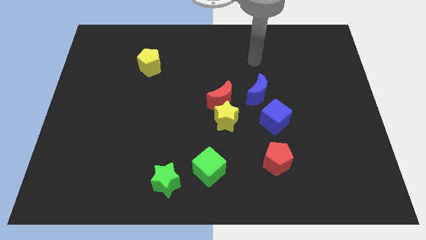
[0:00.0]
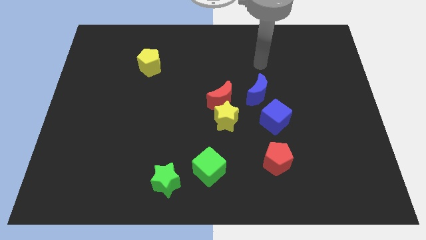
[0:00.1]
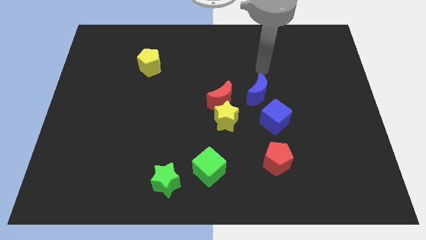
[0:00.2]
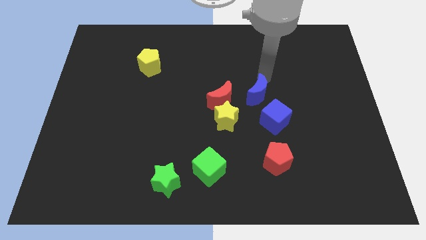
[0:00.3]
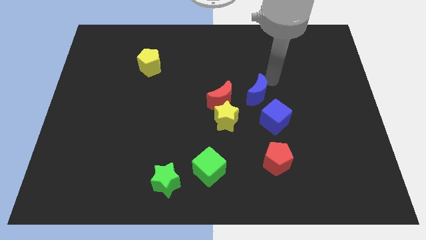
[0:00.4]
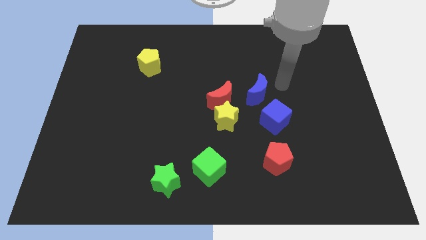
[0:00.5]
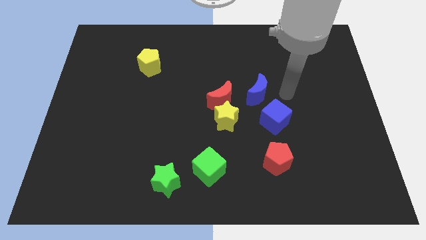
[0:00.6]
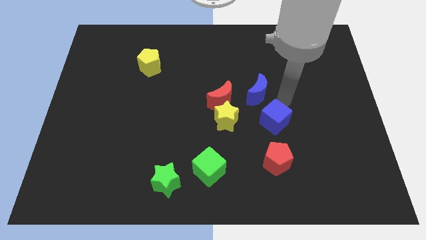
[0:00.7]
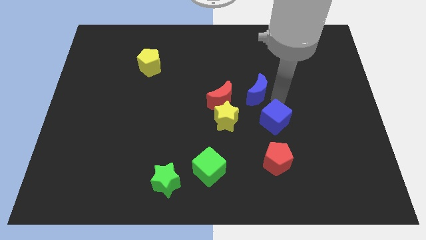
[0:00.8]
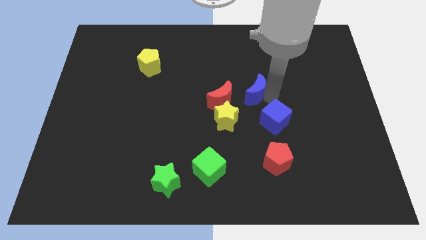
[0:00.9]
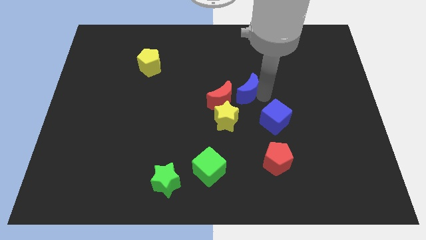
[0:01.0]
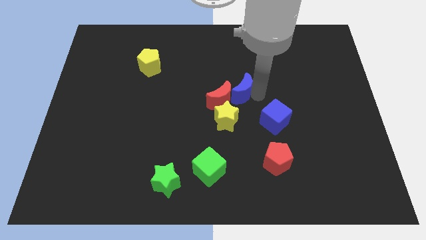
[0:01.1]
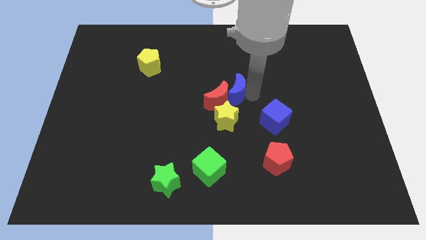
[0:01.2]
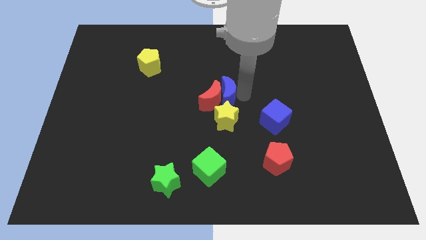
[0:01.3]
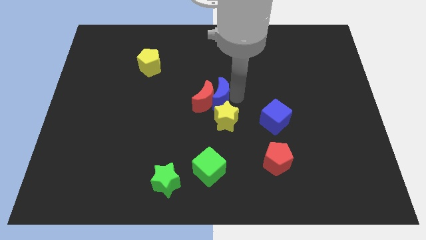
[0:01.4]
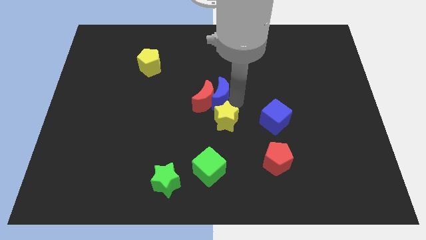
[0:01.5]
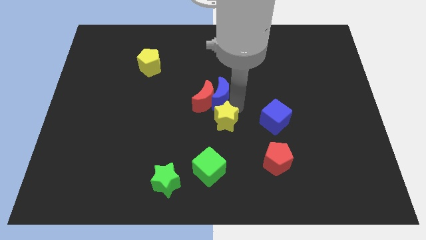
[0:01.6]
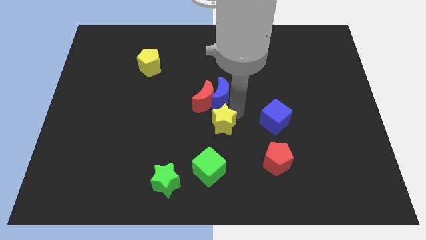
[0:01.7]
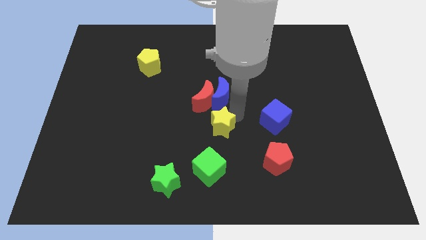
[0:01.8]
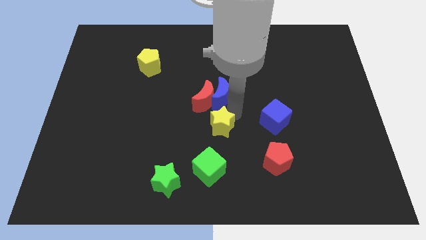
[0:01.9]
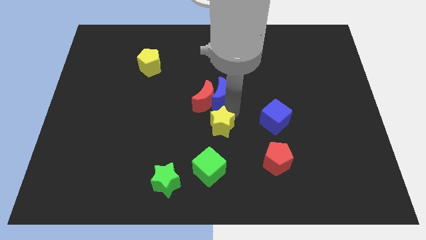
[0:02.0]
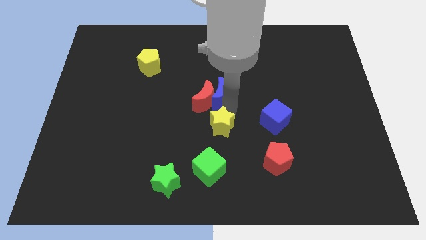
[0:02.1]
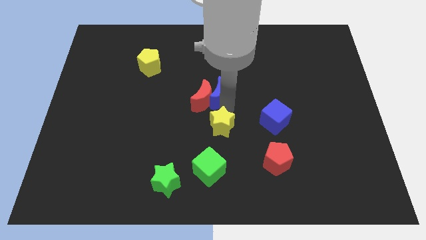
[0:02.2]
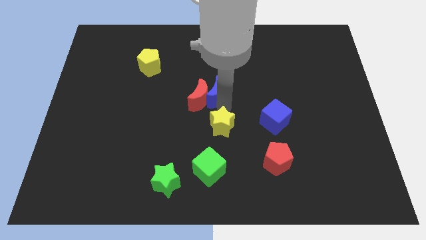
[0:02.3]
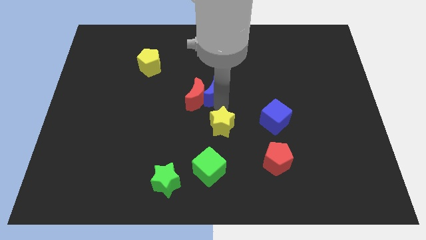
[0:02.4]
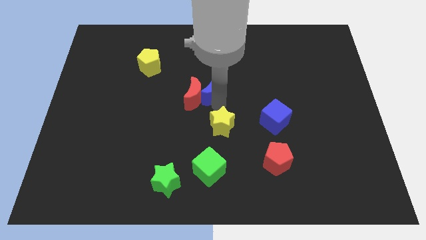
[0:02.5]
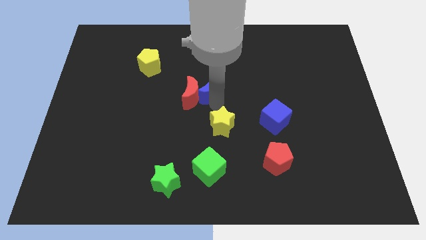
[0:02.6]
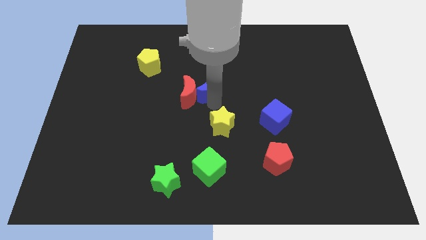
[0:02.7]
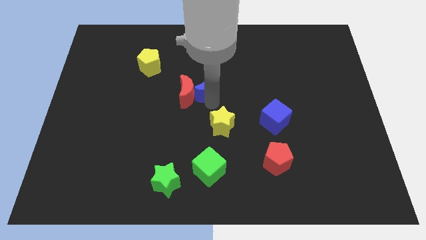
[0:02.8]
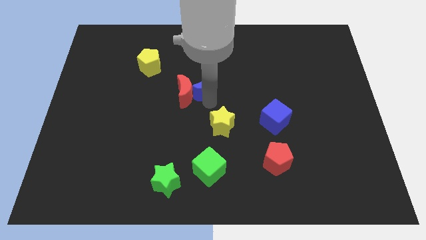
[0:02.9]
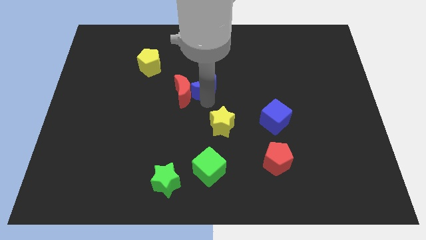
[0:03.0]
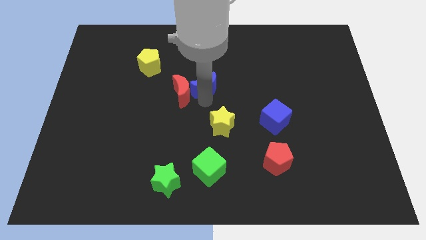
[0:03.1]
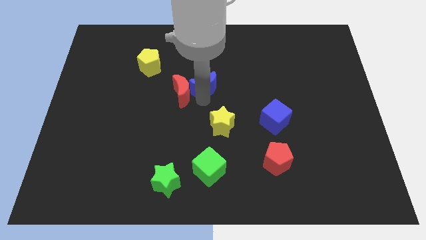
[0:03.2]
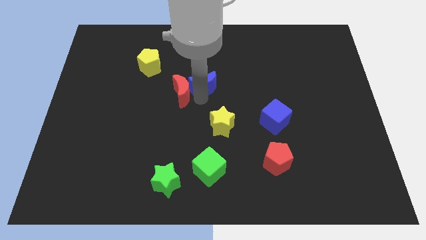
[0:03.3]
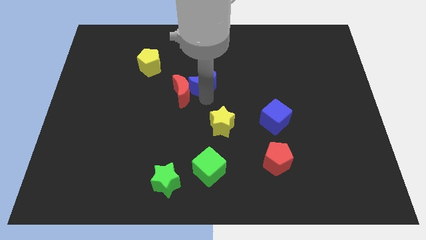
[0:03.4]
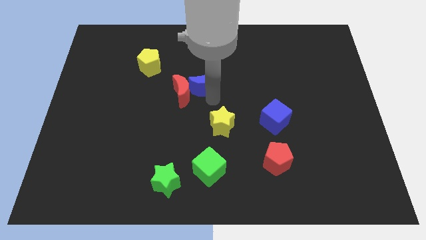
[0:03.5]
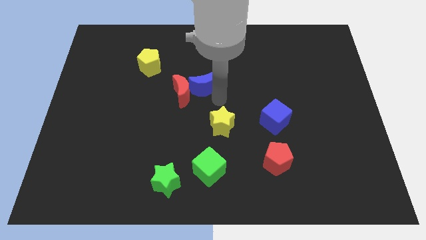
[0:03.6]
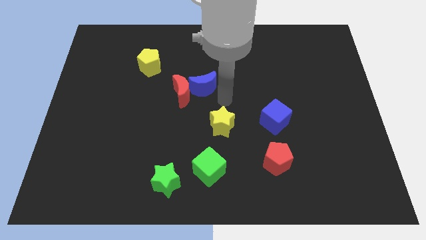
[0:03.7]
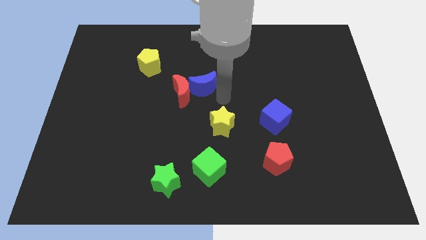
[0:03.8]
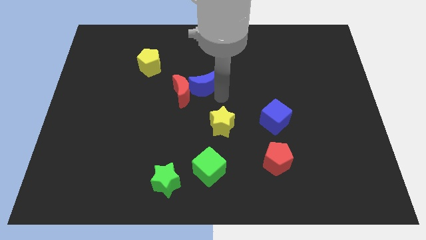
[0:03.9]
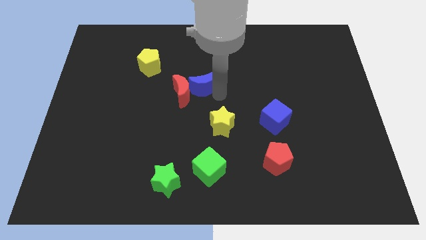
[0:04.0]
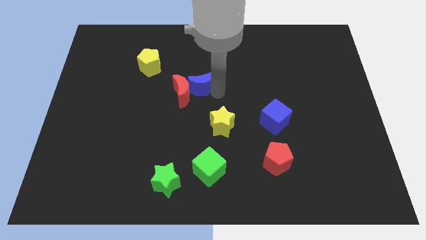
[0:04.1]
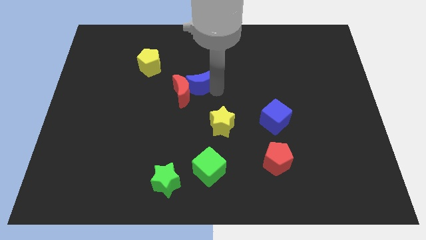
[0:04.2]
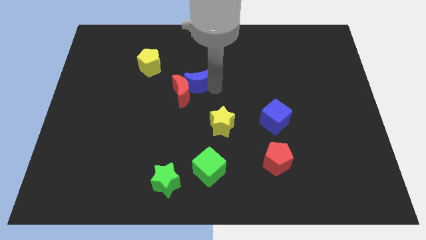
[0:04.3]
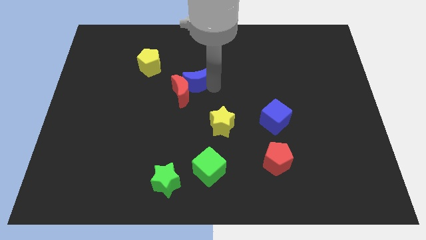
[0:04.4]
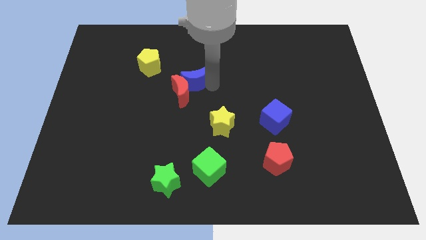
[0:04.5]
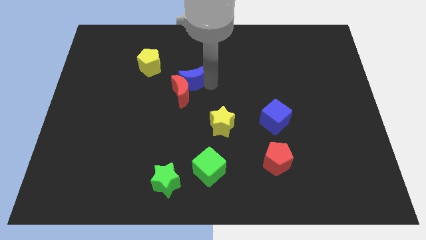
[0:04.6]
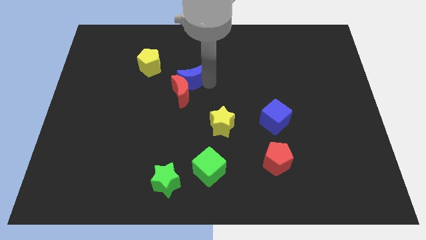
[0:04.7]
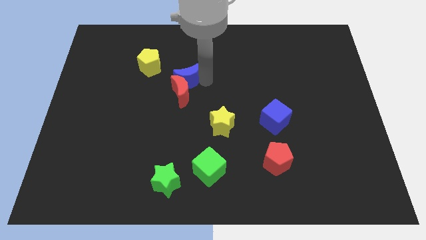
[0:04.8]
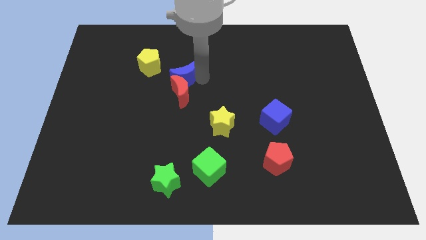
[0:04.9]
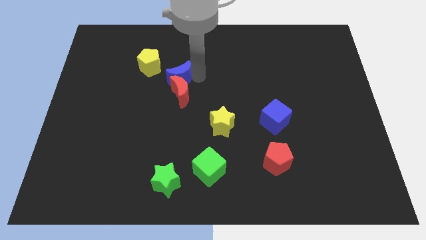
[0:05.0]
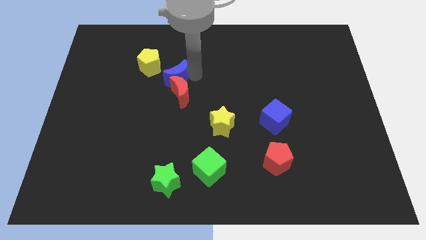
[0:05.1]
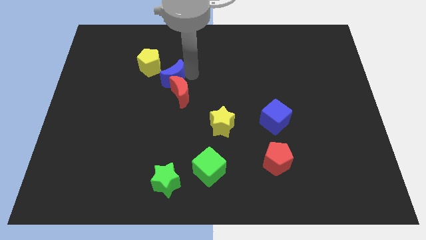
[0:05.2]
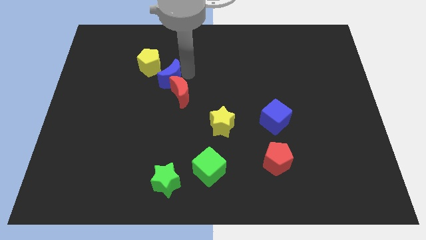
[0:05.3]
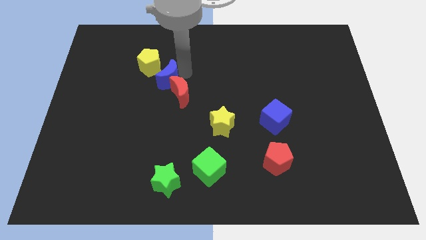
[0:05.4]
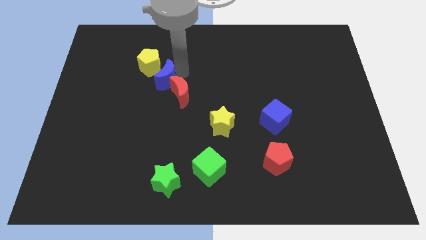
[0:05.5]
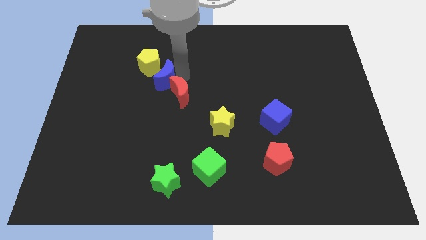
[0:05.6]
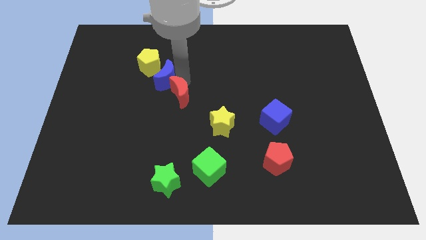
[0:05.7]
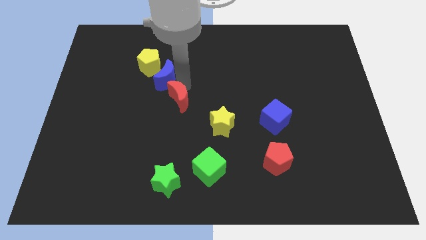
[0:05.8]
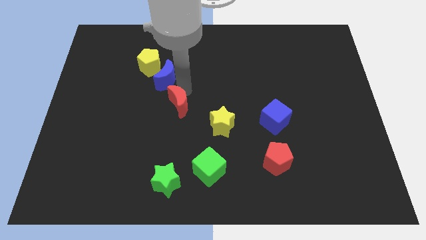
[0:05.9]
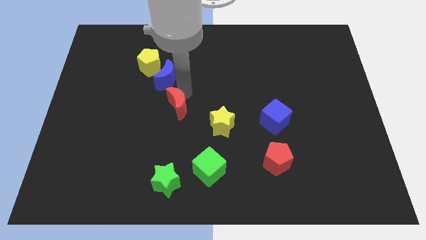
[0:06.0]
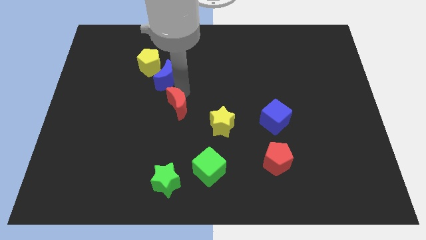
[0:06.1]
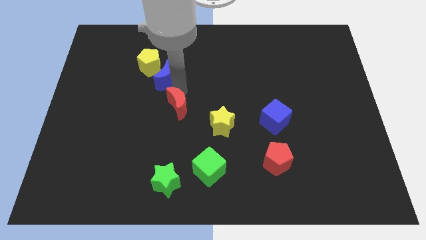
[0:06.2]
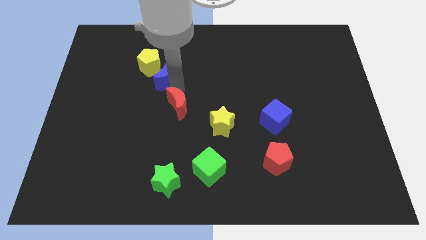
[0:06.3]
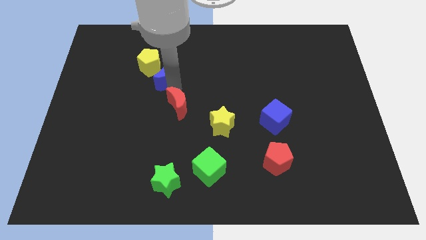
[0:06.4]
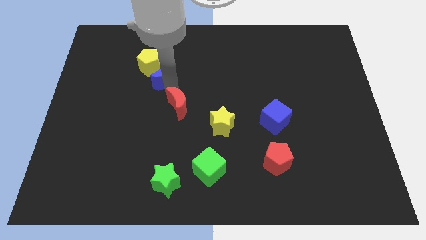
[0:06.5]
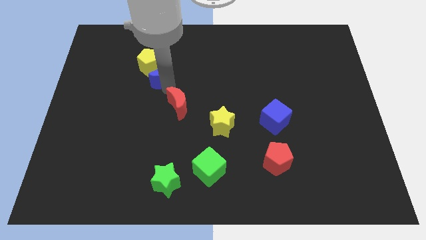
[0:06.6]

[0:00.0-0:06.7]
push the blue moon to the yellow pentagon

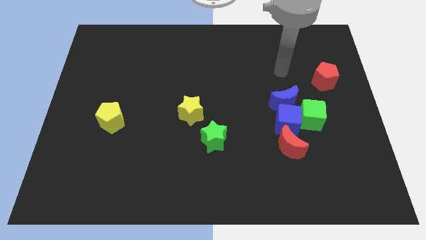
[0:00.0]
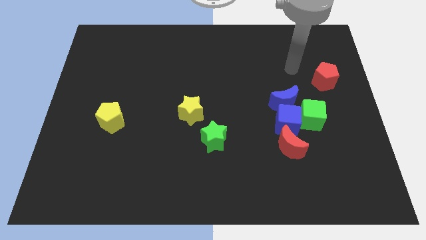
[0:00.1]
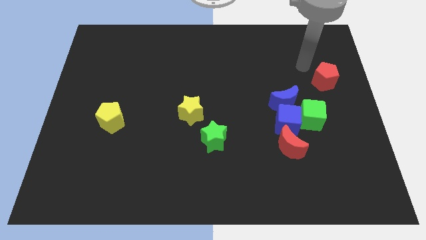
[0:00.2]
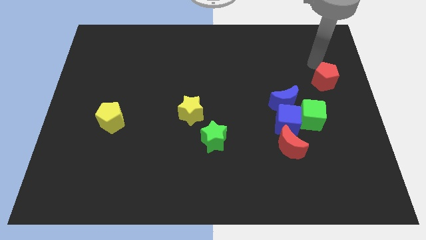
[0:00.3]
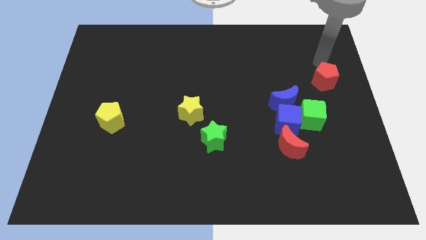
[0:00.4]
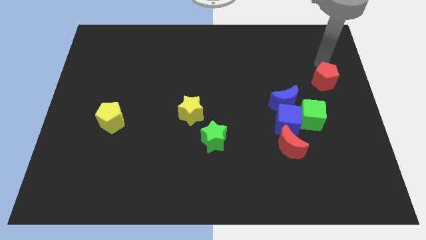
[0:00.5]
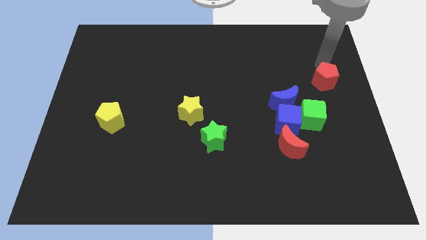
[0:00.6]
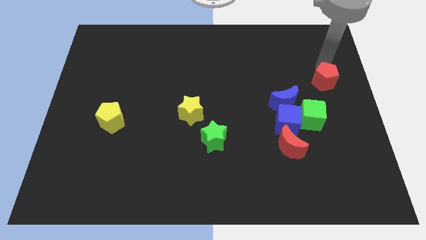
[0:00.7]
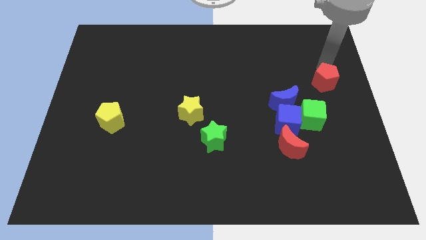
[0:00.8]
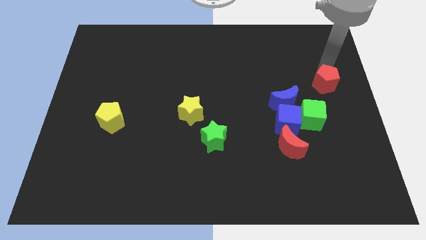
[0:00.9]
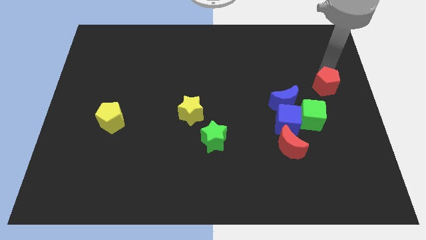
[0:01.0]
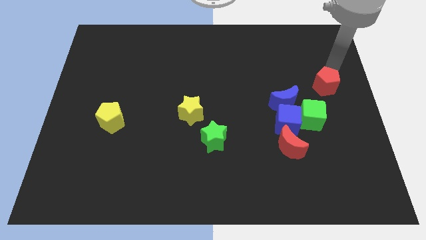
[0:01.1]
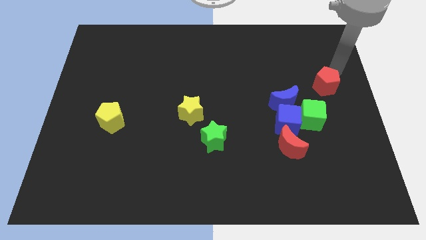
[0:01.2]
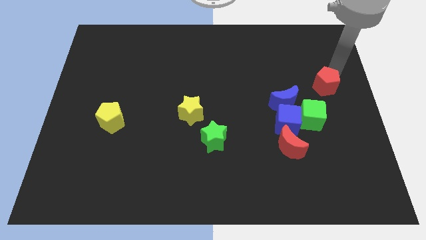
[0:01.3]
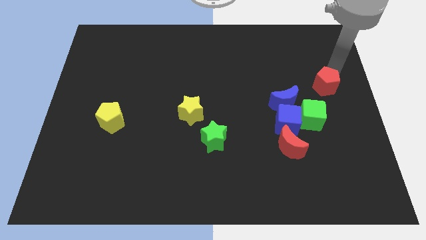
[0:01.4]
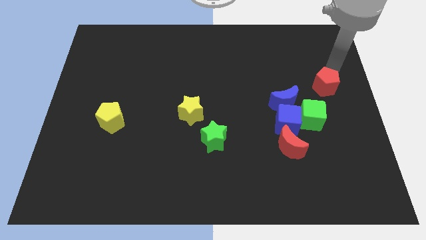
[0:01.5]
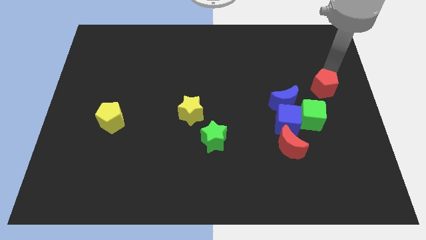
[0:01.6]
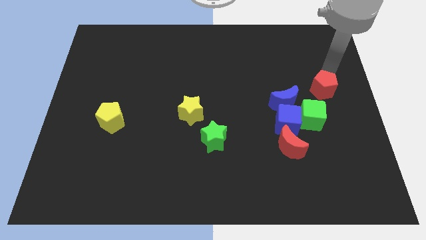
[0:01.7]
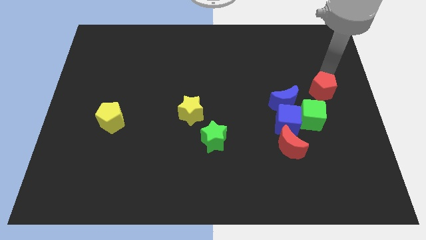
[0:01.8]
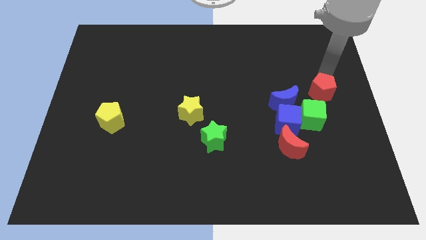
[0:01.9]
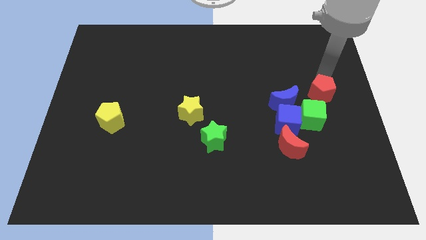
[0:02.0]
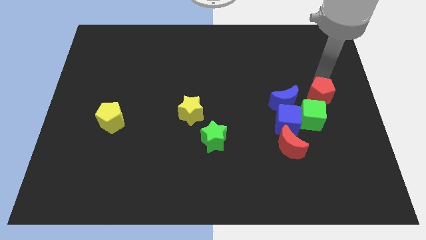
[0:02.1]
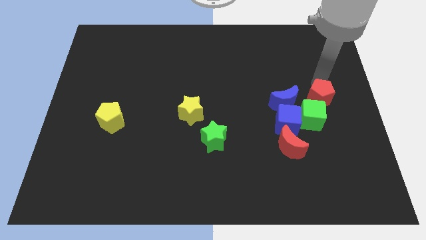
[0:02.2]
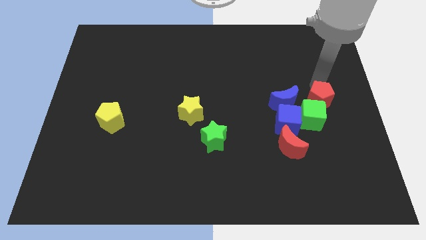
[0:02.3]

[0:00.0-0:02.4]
put the red pentagon to the green cube
